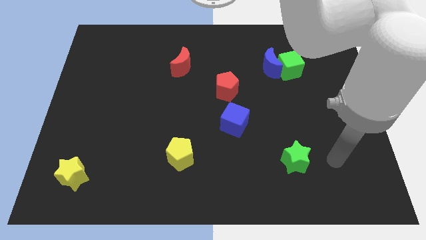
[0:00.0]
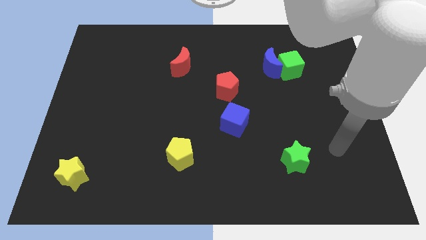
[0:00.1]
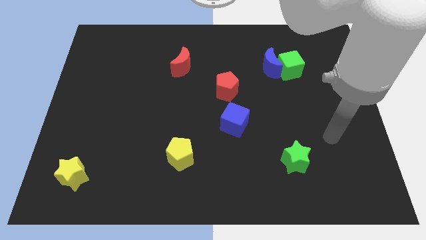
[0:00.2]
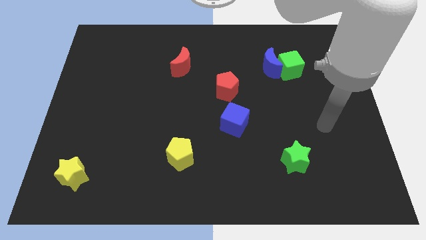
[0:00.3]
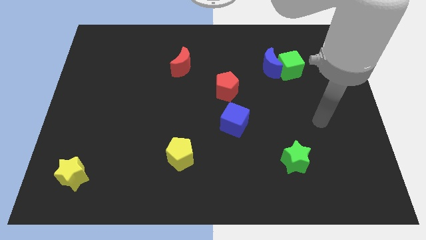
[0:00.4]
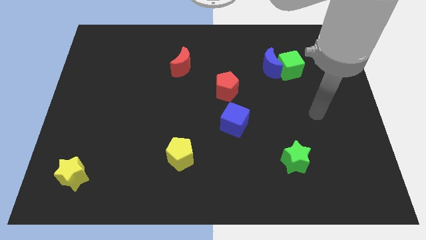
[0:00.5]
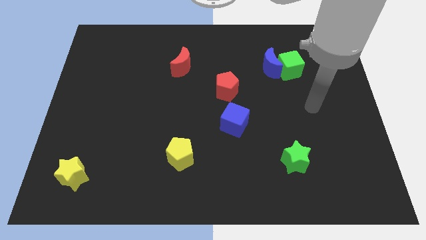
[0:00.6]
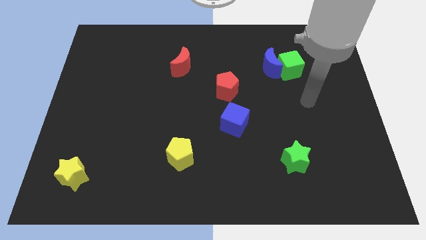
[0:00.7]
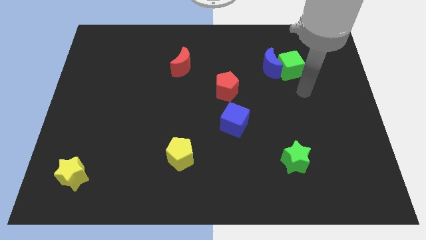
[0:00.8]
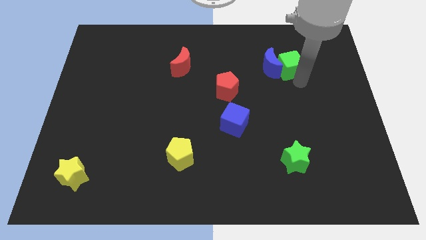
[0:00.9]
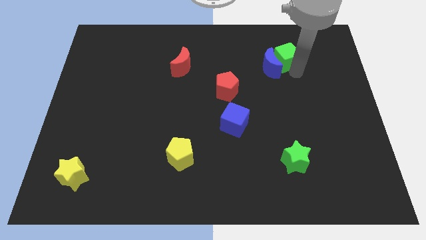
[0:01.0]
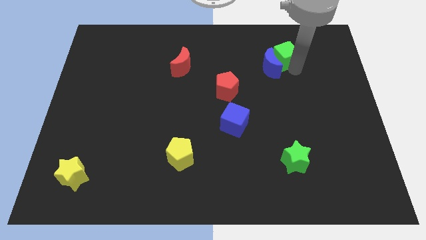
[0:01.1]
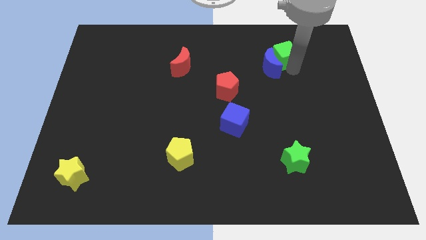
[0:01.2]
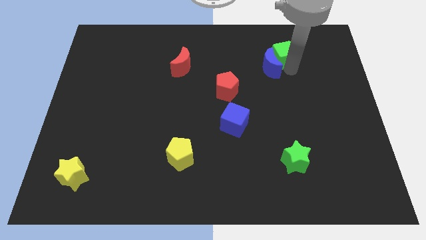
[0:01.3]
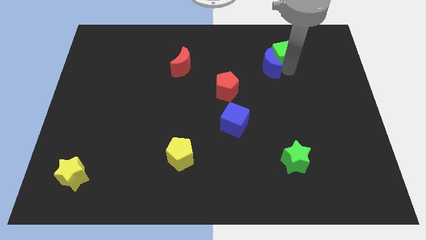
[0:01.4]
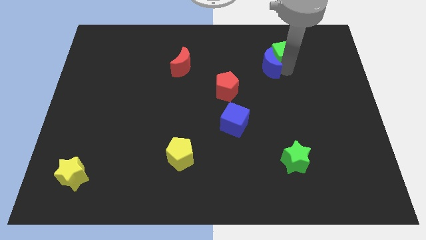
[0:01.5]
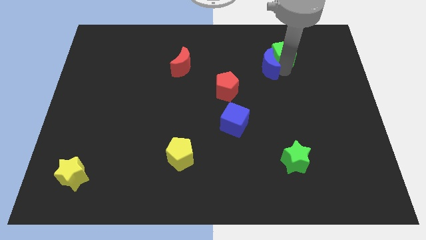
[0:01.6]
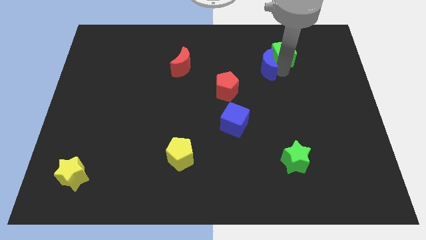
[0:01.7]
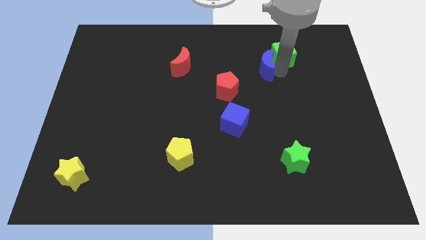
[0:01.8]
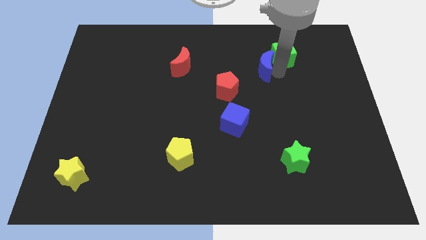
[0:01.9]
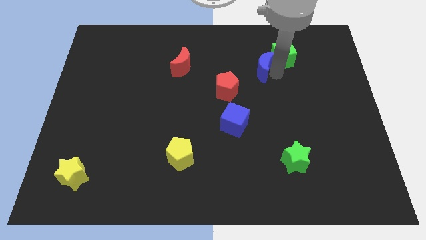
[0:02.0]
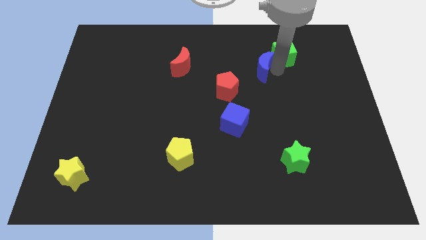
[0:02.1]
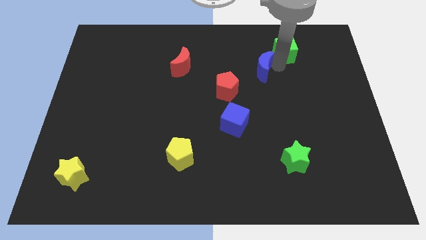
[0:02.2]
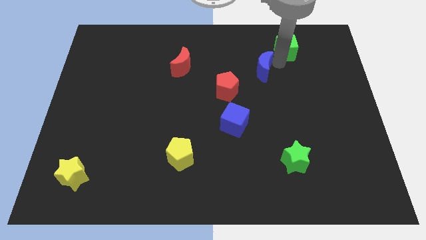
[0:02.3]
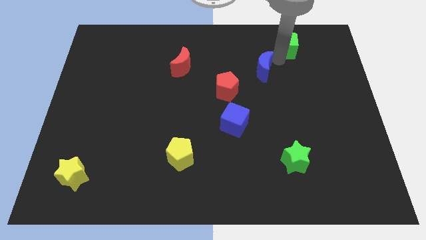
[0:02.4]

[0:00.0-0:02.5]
move the blue moon away from the green cube

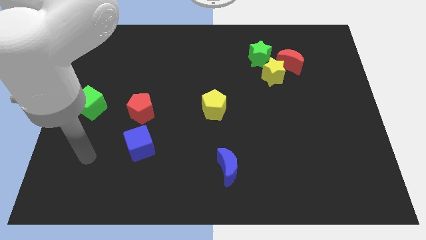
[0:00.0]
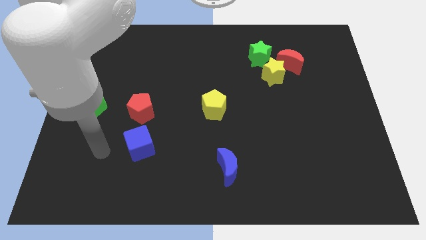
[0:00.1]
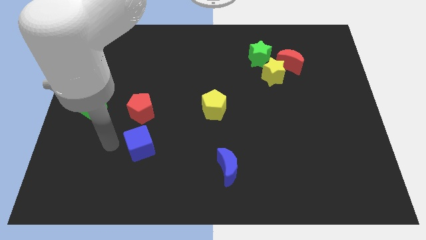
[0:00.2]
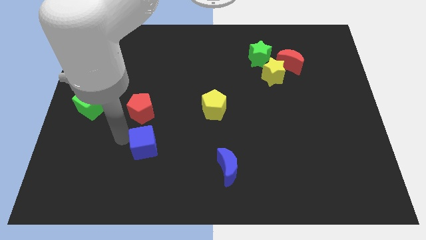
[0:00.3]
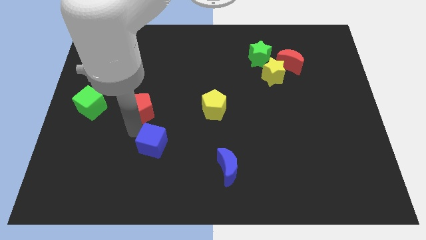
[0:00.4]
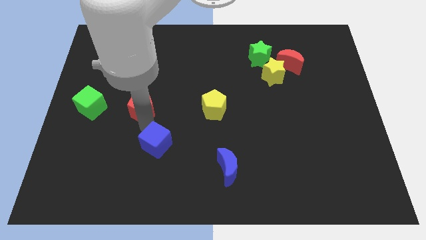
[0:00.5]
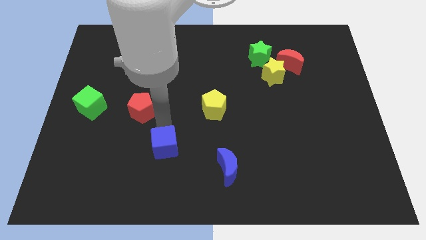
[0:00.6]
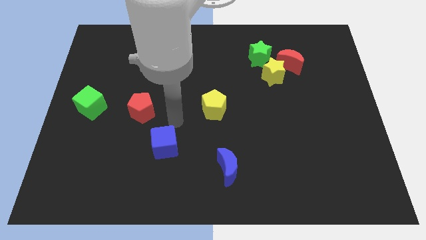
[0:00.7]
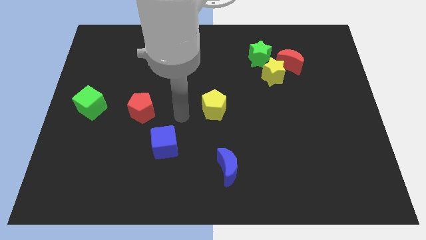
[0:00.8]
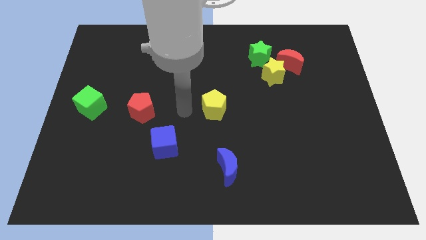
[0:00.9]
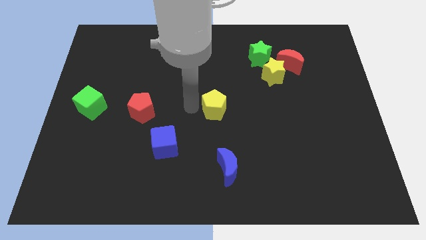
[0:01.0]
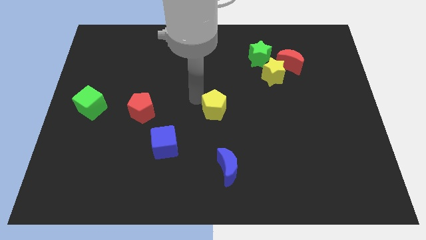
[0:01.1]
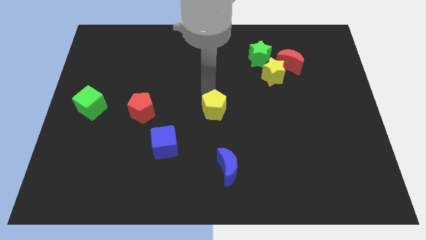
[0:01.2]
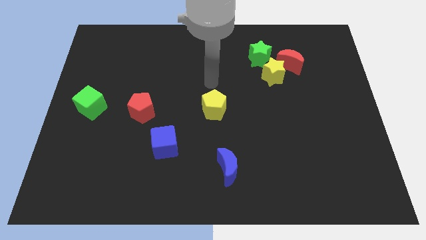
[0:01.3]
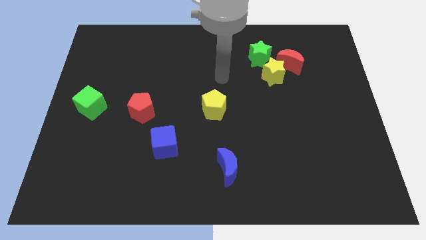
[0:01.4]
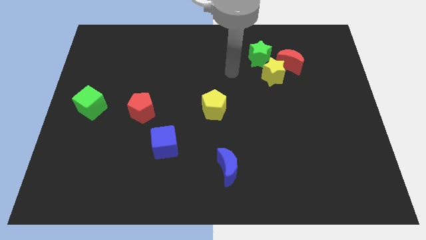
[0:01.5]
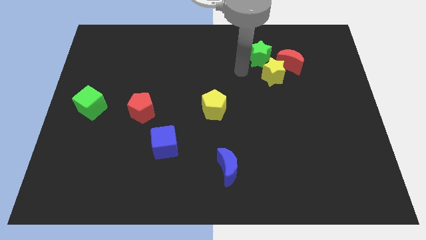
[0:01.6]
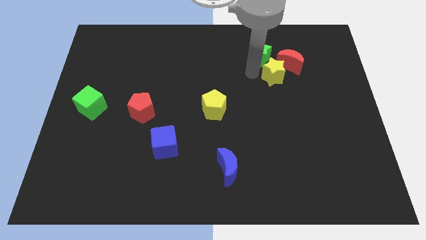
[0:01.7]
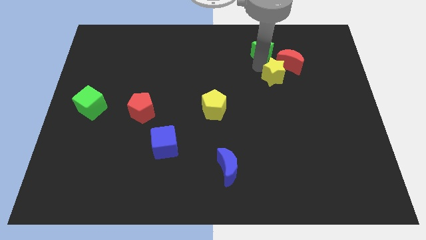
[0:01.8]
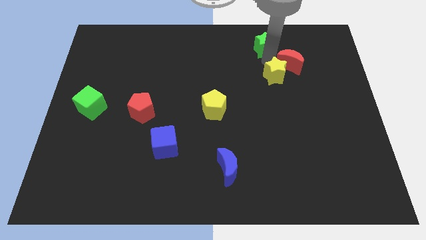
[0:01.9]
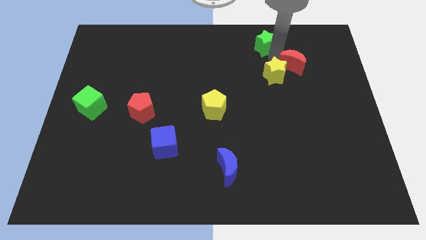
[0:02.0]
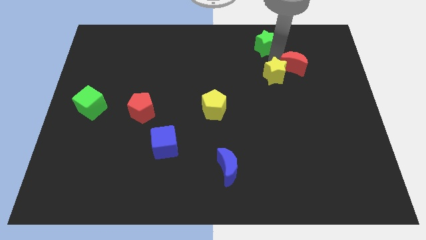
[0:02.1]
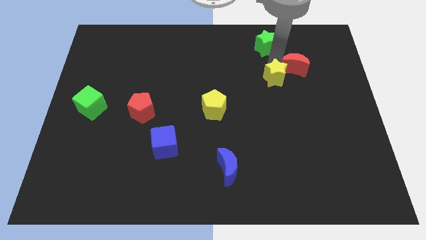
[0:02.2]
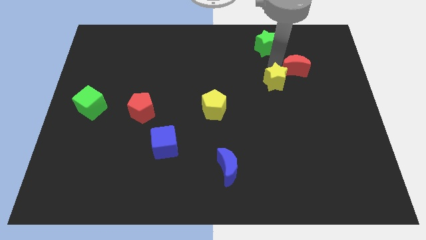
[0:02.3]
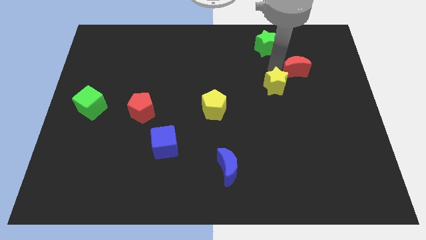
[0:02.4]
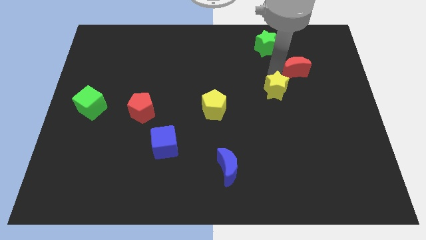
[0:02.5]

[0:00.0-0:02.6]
pull the yellow star apart from the red moon and green star

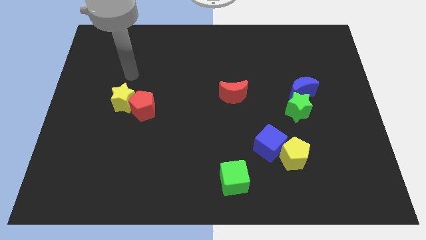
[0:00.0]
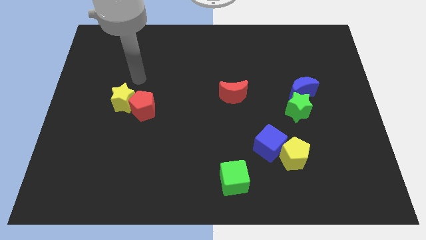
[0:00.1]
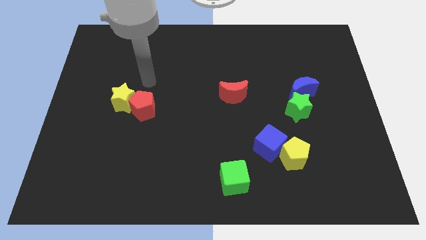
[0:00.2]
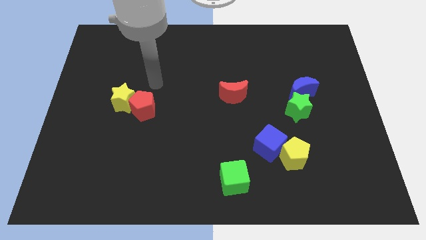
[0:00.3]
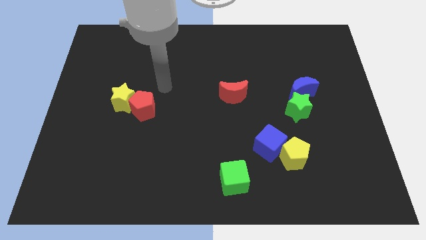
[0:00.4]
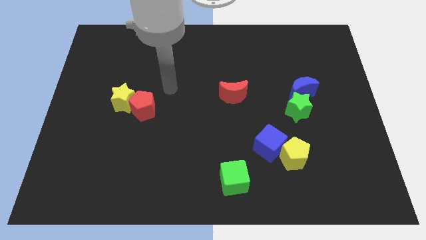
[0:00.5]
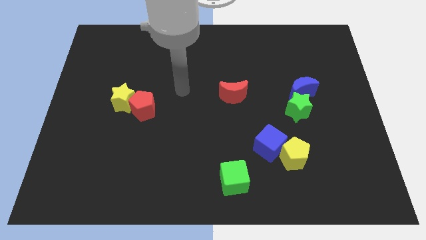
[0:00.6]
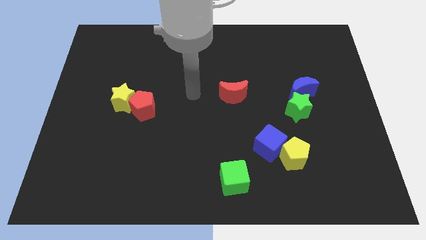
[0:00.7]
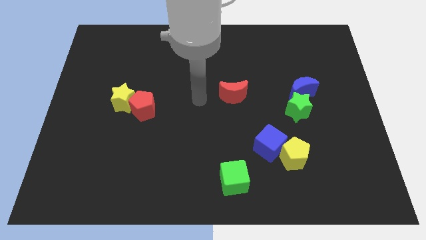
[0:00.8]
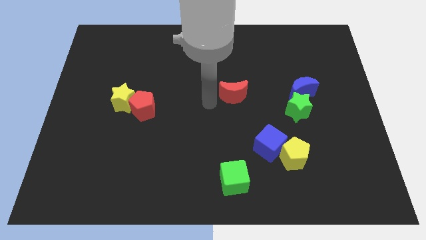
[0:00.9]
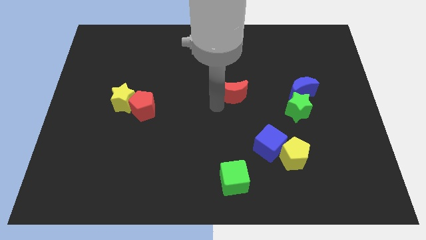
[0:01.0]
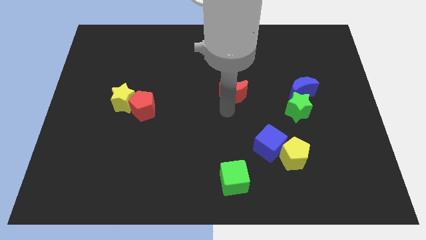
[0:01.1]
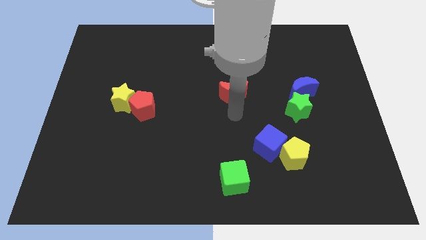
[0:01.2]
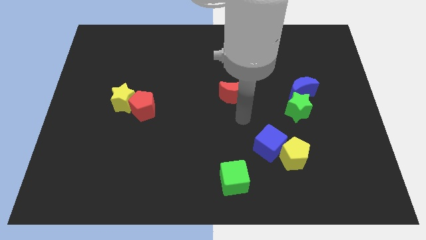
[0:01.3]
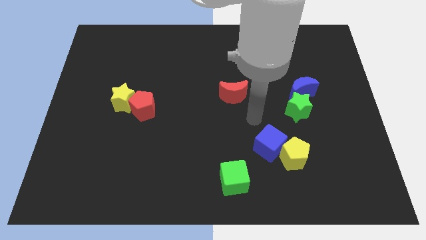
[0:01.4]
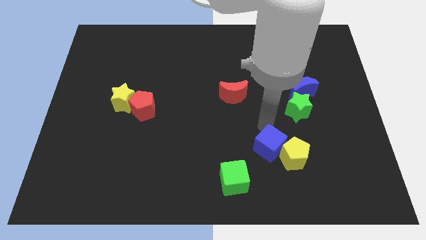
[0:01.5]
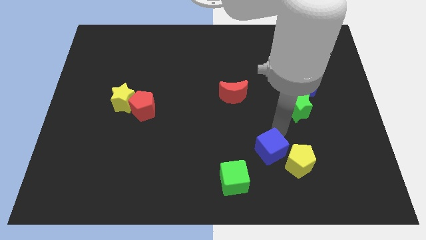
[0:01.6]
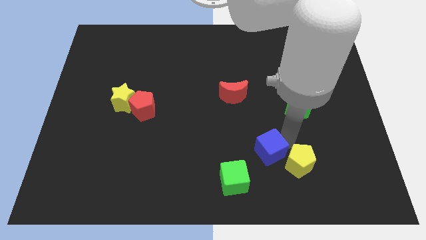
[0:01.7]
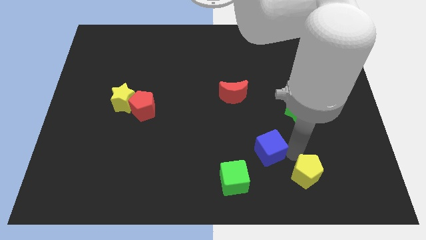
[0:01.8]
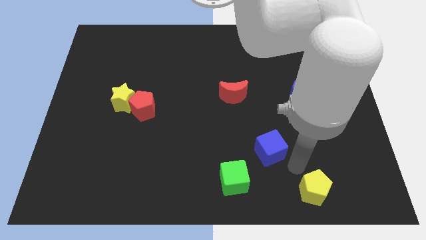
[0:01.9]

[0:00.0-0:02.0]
separate the blue cube from the yellow pentagon

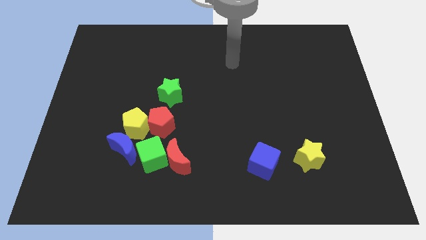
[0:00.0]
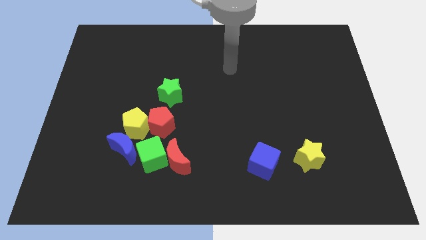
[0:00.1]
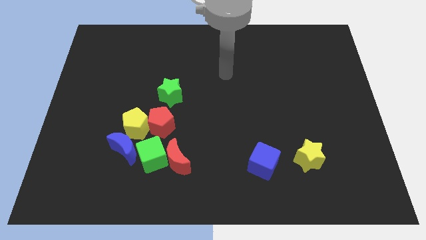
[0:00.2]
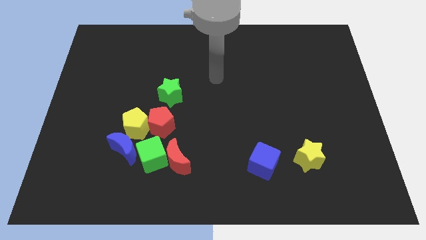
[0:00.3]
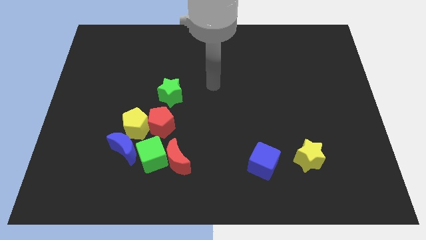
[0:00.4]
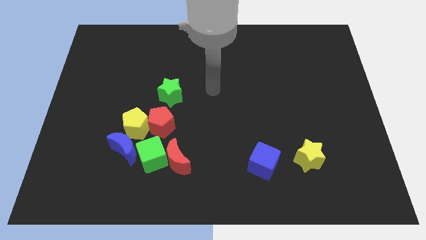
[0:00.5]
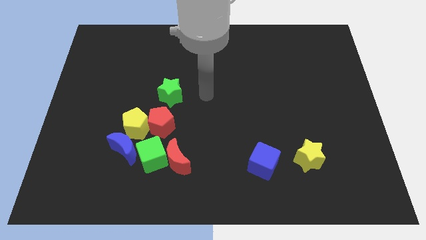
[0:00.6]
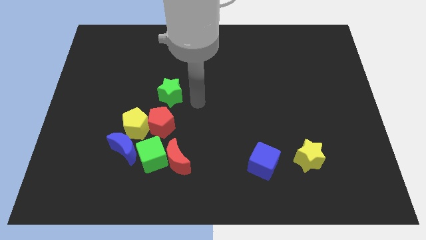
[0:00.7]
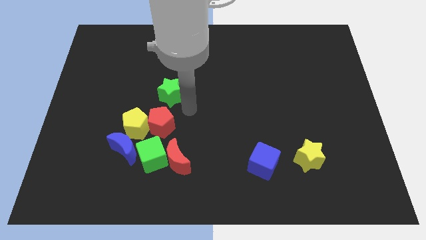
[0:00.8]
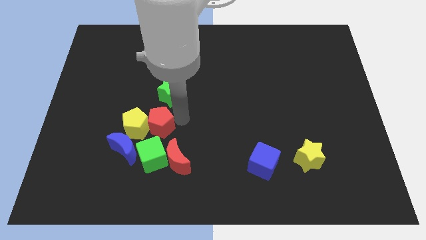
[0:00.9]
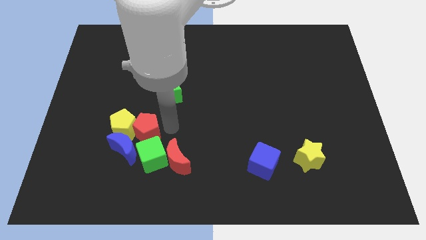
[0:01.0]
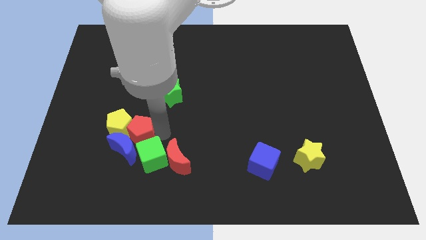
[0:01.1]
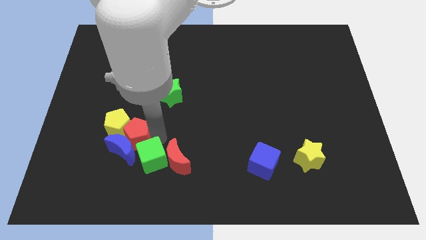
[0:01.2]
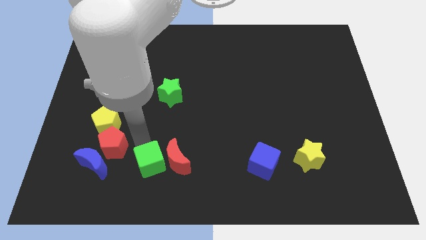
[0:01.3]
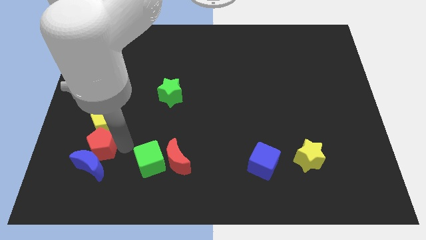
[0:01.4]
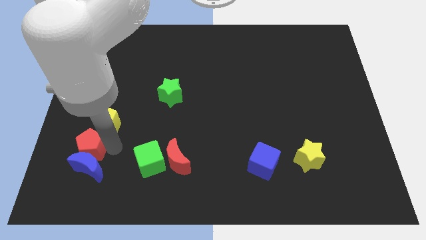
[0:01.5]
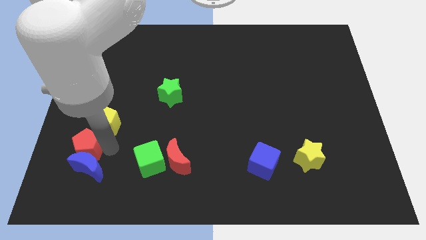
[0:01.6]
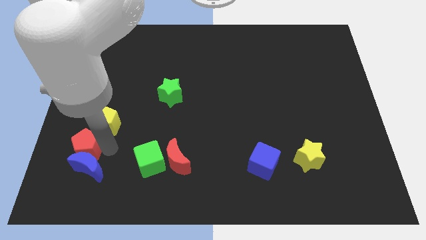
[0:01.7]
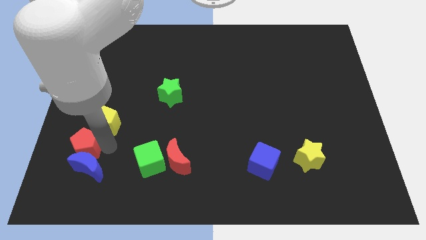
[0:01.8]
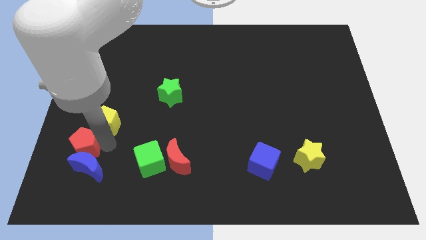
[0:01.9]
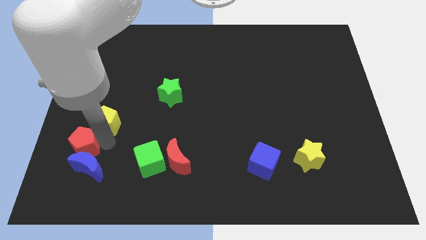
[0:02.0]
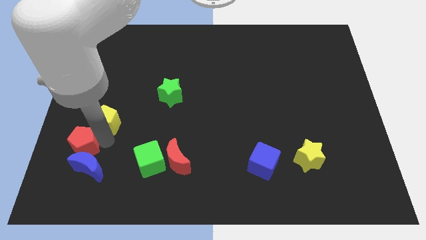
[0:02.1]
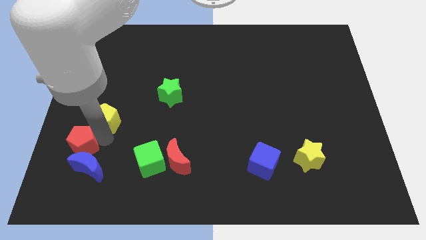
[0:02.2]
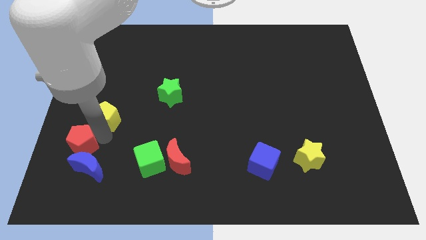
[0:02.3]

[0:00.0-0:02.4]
pull the yellow pentagon apart from the clump
